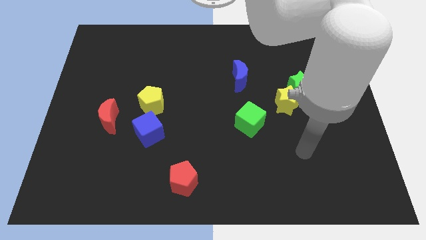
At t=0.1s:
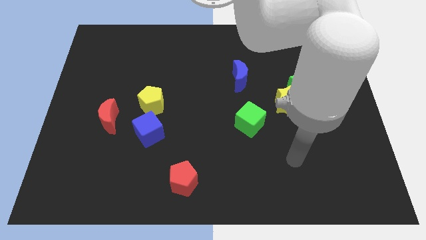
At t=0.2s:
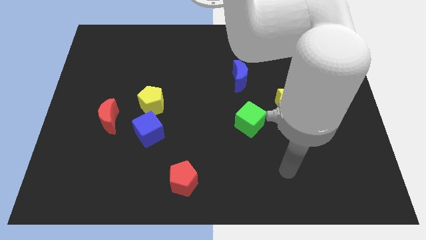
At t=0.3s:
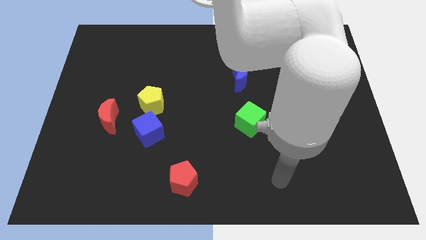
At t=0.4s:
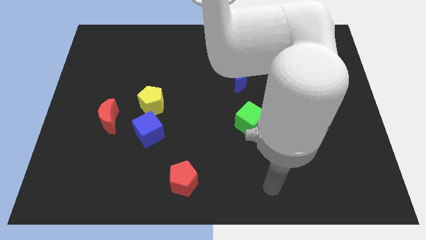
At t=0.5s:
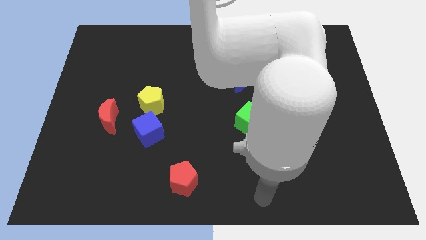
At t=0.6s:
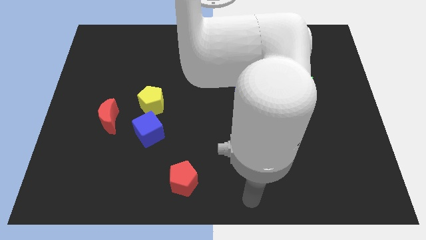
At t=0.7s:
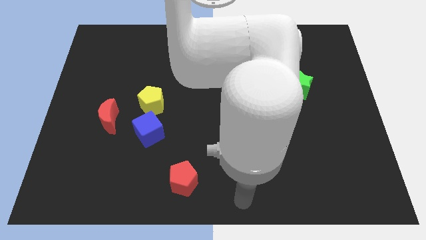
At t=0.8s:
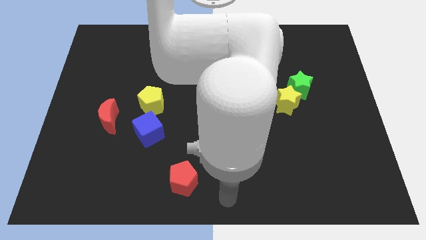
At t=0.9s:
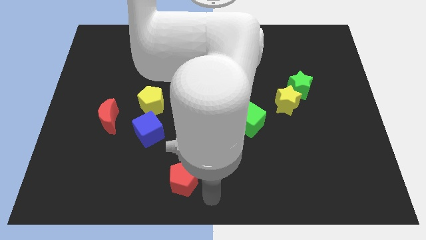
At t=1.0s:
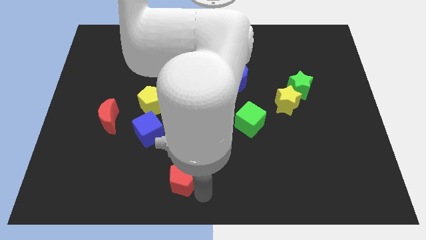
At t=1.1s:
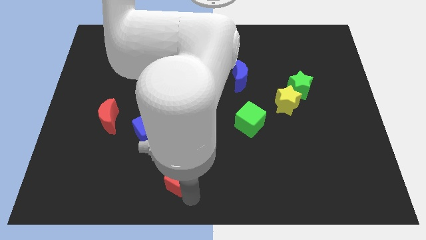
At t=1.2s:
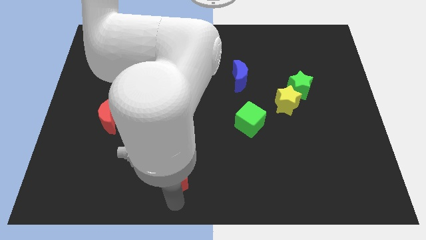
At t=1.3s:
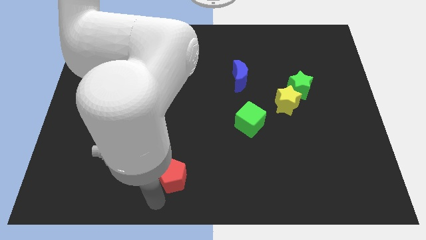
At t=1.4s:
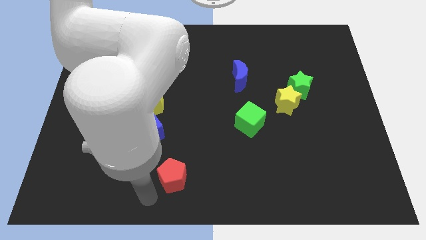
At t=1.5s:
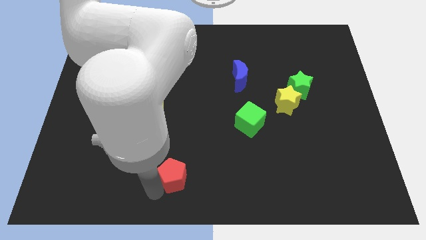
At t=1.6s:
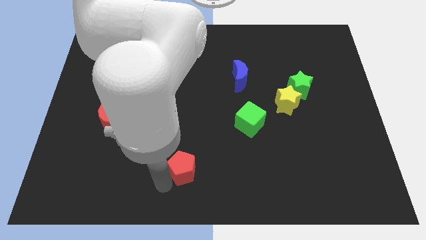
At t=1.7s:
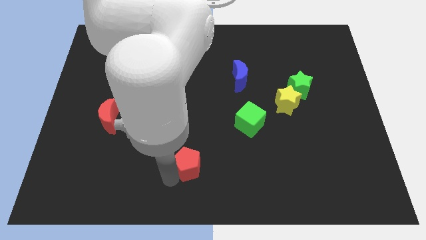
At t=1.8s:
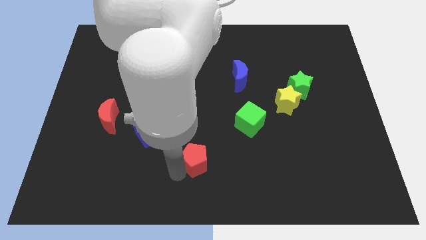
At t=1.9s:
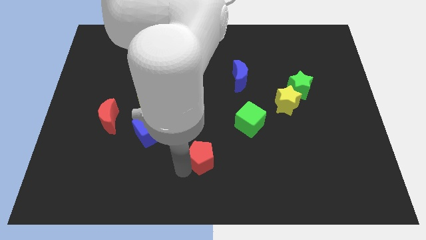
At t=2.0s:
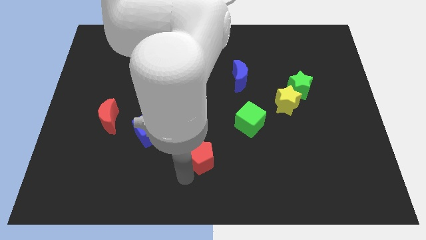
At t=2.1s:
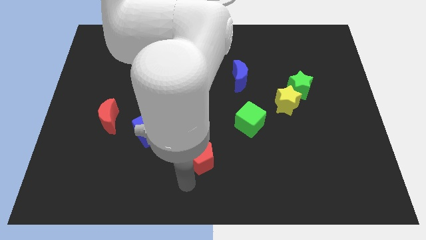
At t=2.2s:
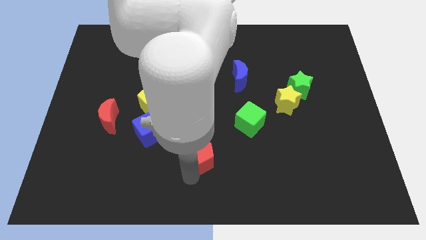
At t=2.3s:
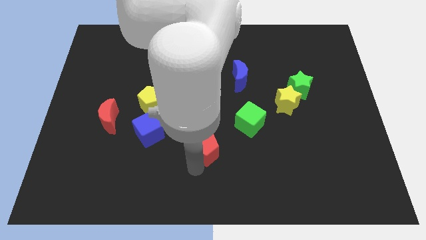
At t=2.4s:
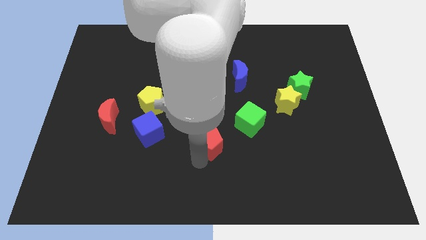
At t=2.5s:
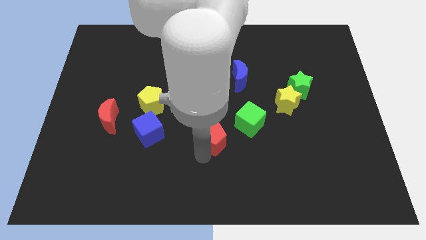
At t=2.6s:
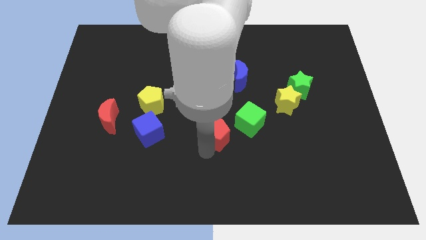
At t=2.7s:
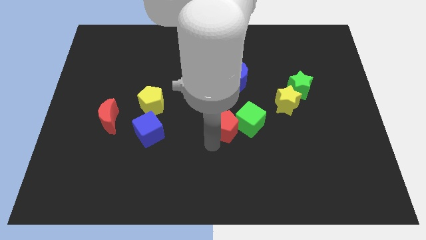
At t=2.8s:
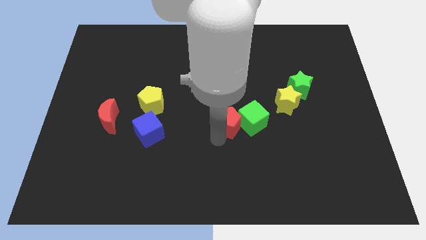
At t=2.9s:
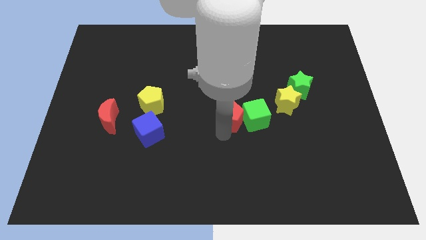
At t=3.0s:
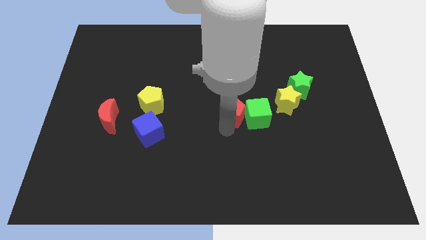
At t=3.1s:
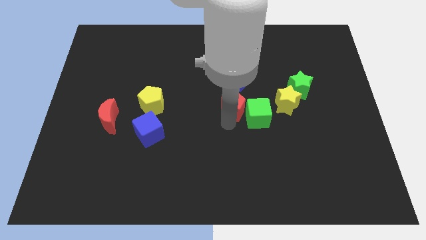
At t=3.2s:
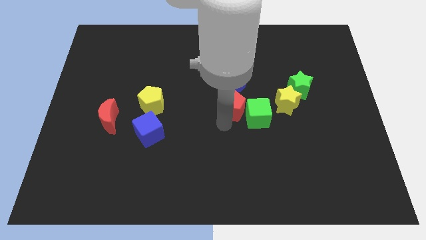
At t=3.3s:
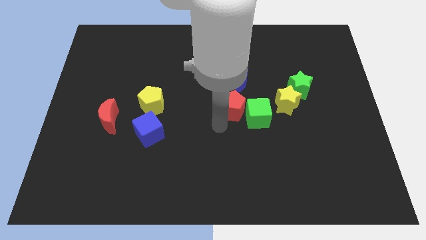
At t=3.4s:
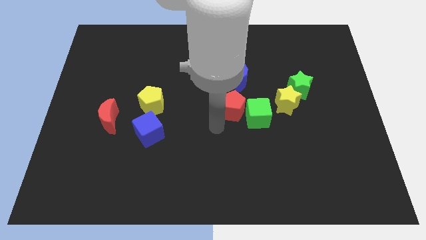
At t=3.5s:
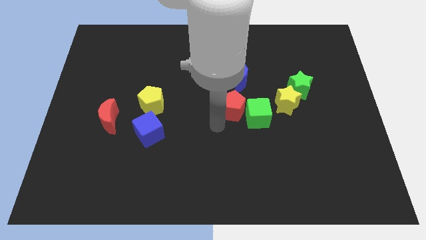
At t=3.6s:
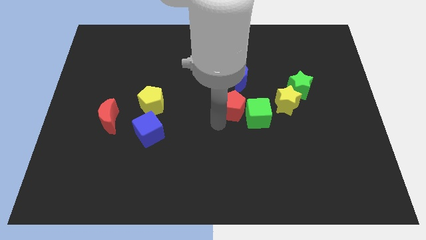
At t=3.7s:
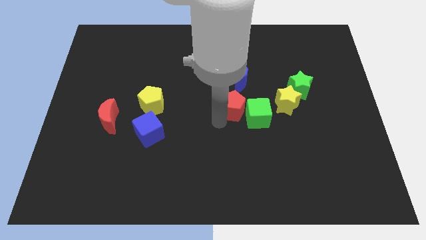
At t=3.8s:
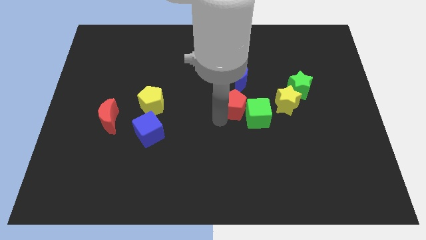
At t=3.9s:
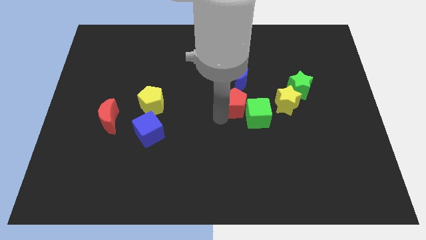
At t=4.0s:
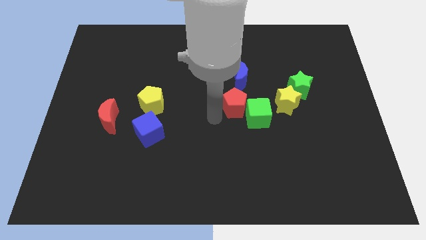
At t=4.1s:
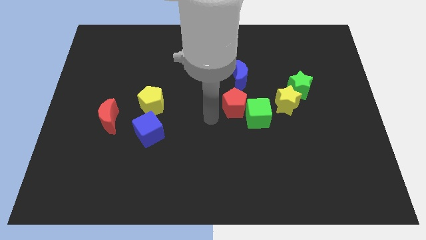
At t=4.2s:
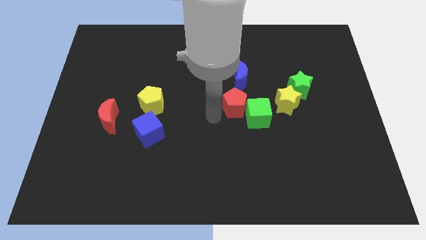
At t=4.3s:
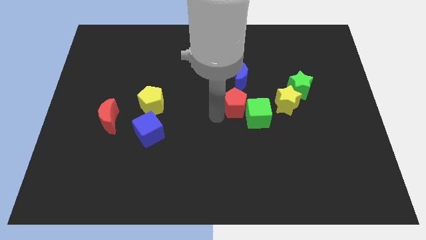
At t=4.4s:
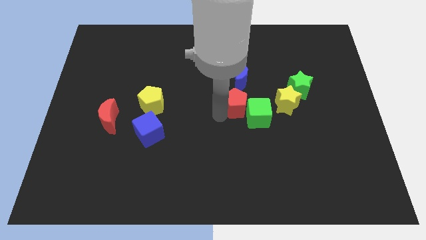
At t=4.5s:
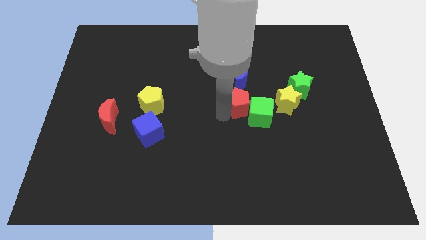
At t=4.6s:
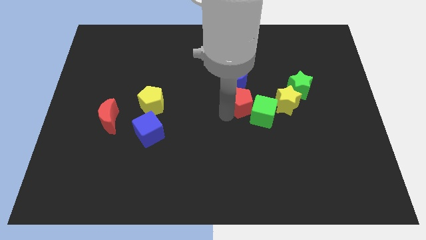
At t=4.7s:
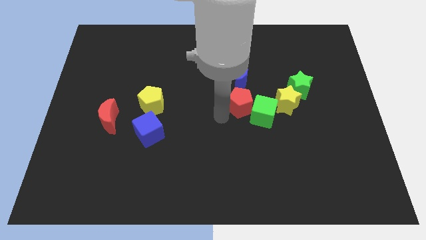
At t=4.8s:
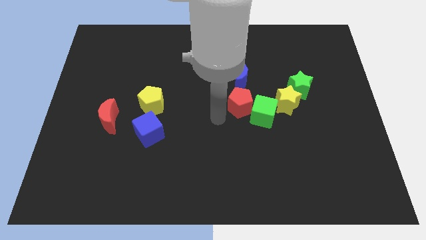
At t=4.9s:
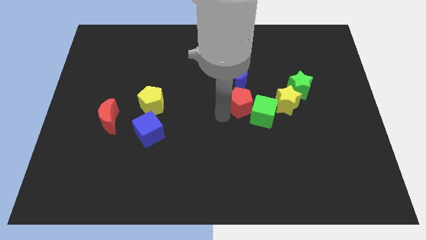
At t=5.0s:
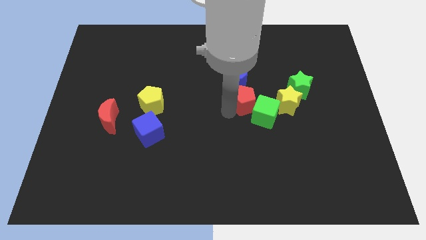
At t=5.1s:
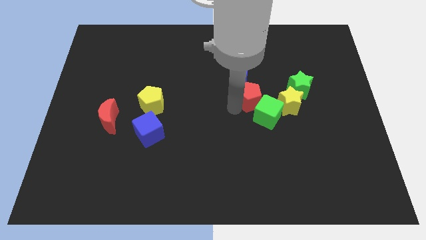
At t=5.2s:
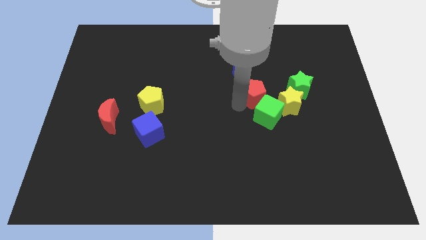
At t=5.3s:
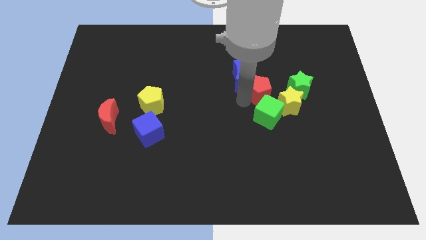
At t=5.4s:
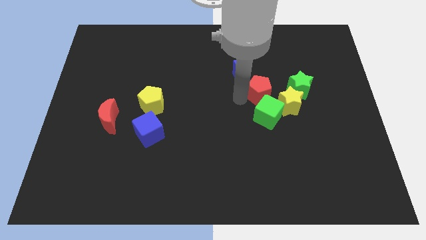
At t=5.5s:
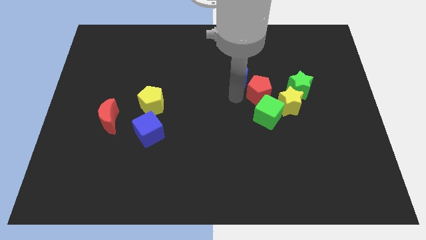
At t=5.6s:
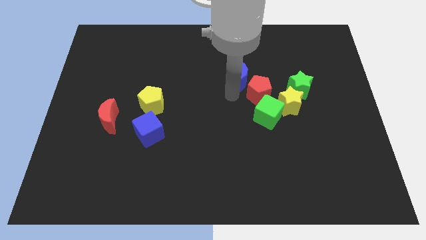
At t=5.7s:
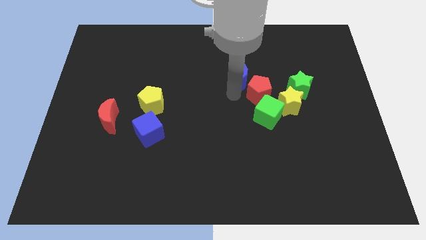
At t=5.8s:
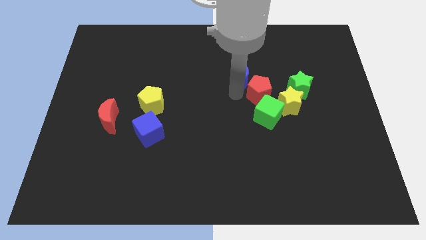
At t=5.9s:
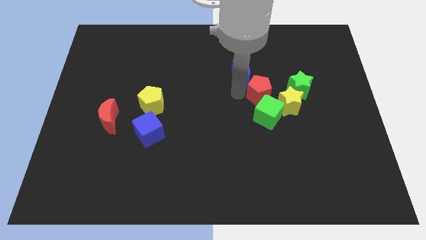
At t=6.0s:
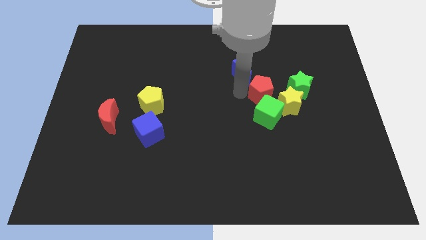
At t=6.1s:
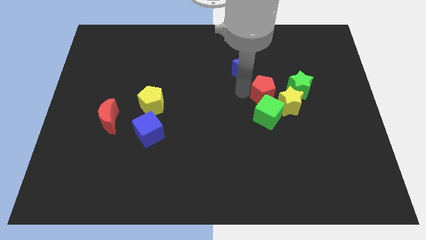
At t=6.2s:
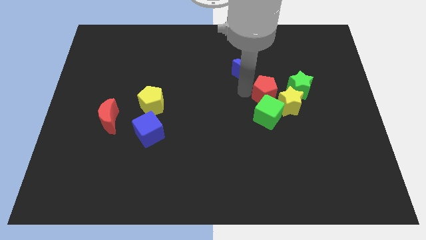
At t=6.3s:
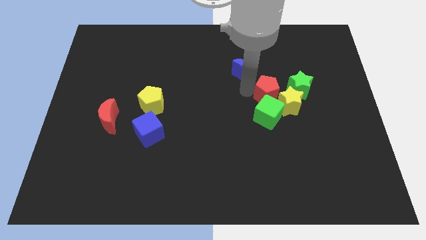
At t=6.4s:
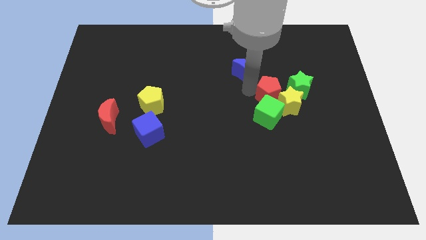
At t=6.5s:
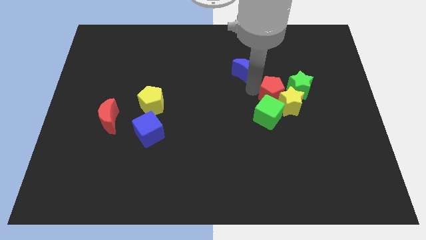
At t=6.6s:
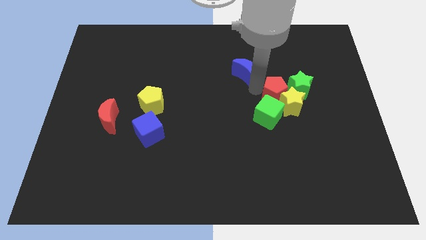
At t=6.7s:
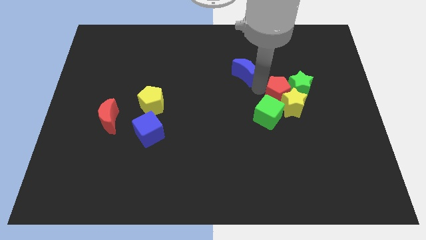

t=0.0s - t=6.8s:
push the red pentagon to the green star
